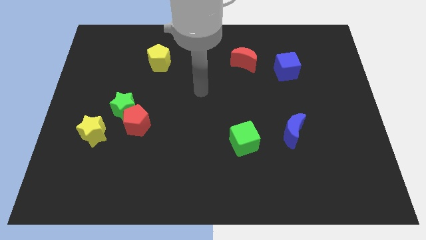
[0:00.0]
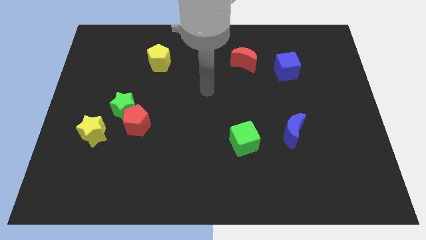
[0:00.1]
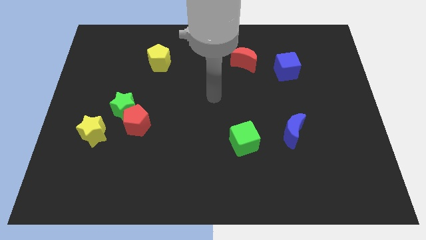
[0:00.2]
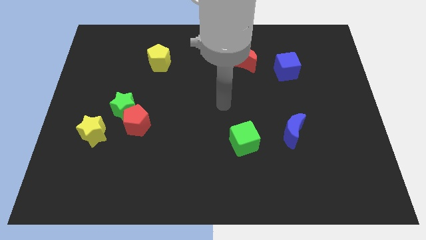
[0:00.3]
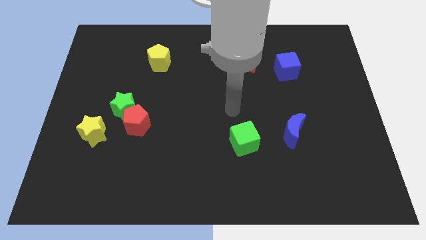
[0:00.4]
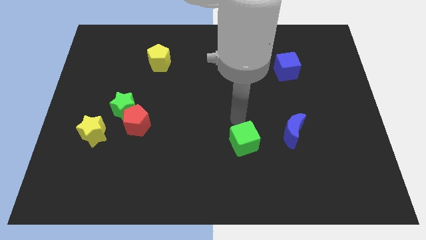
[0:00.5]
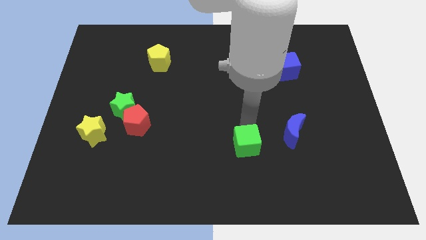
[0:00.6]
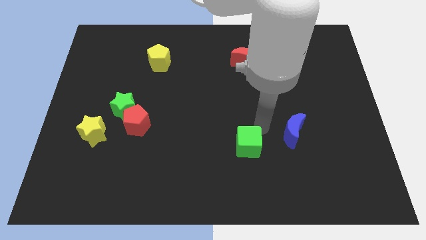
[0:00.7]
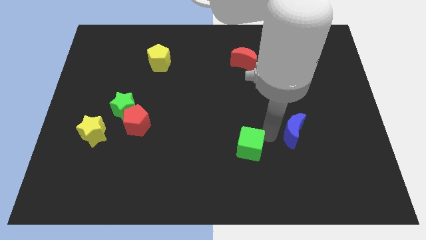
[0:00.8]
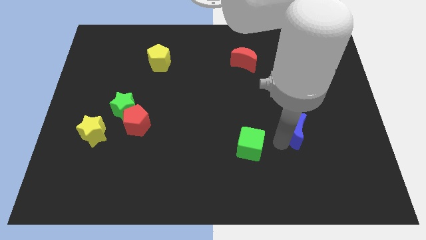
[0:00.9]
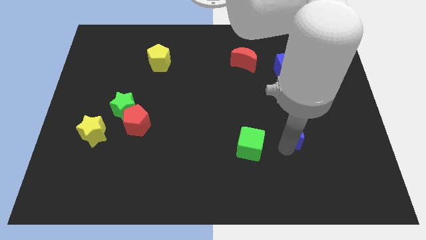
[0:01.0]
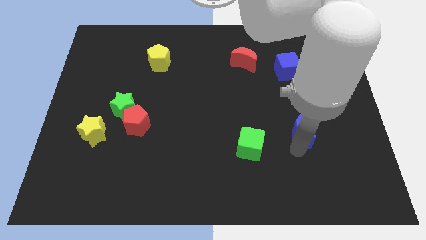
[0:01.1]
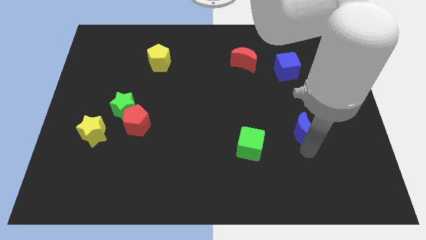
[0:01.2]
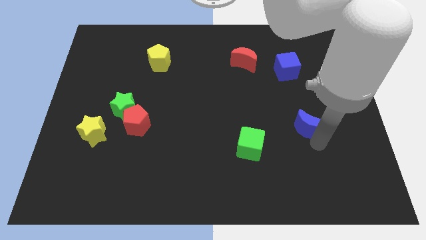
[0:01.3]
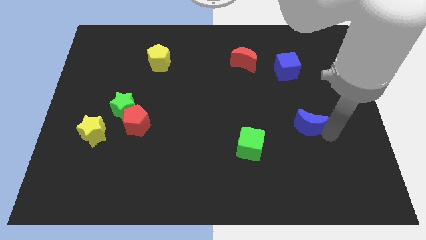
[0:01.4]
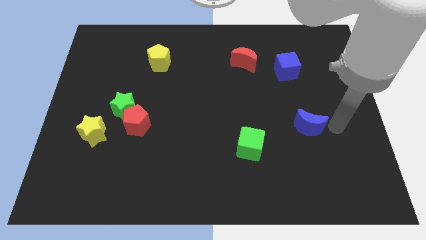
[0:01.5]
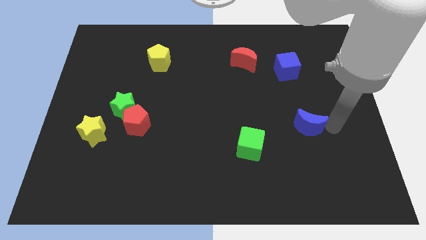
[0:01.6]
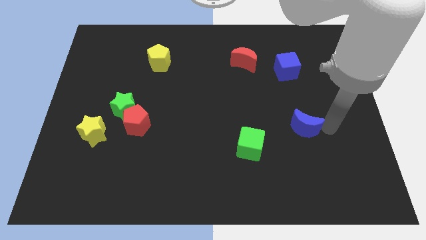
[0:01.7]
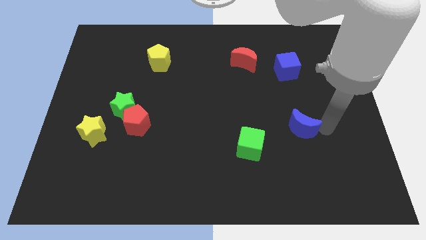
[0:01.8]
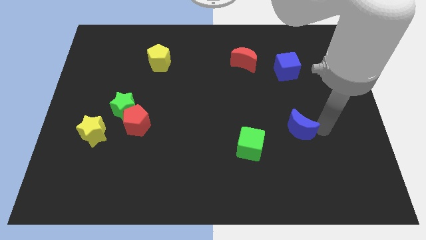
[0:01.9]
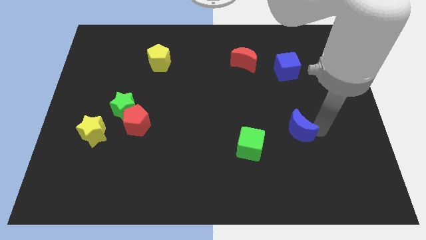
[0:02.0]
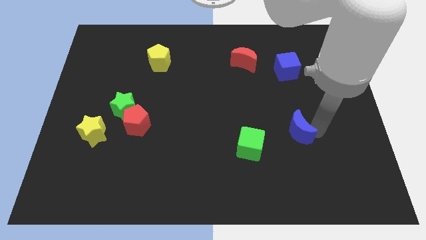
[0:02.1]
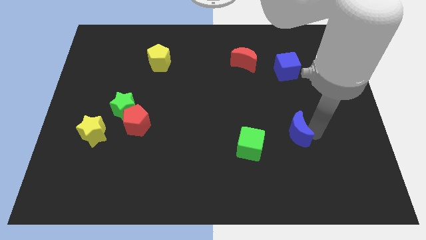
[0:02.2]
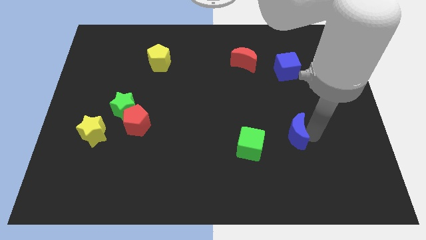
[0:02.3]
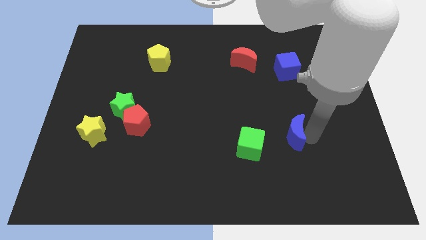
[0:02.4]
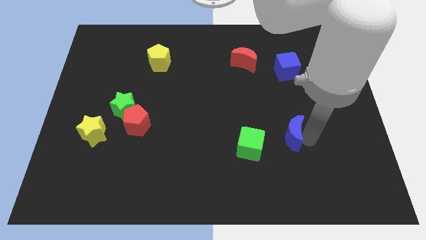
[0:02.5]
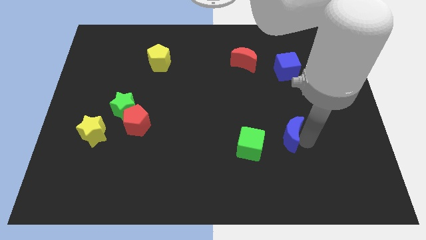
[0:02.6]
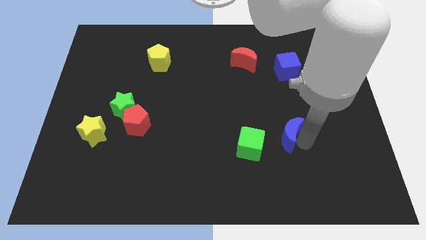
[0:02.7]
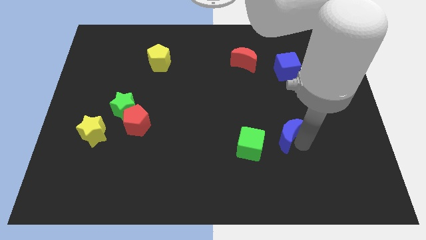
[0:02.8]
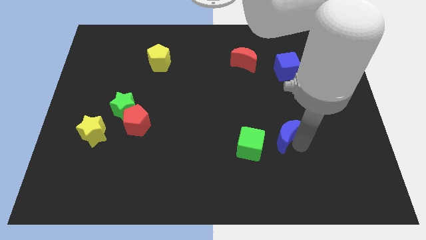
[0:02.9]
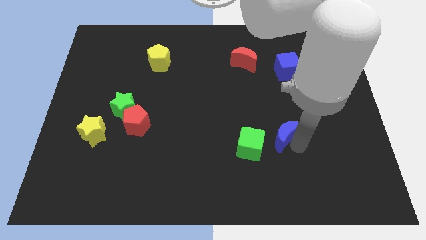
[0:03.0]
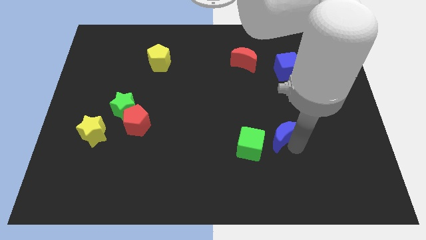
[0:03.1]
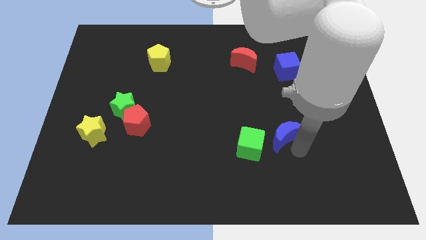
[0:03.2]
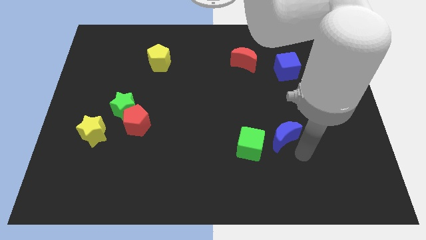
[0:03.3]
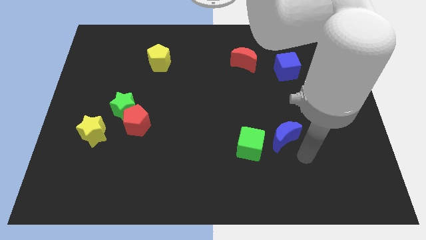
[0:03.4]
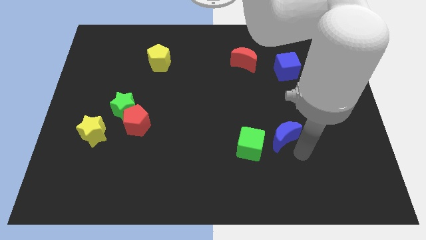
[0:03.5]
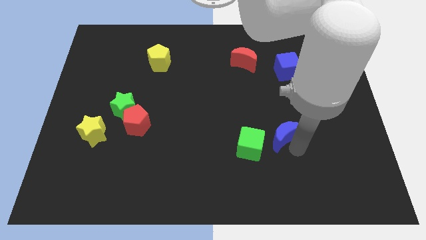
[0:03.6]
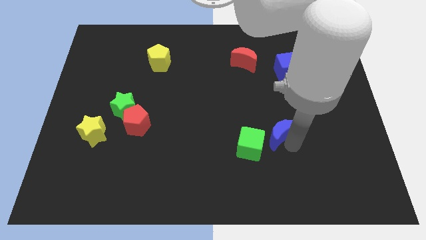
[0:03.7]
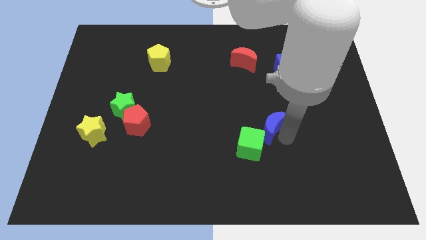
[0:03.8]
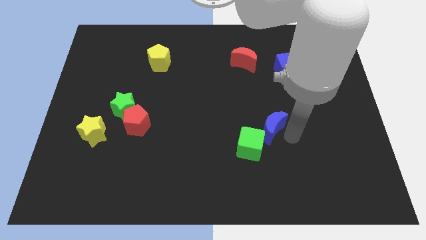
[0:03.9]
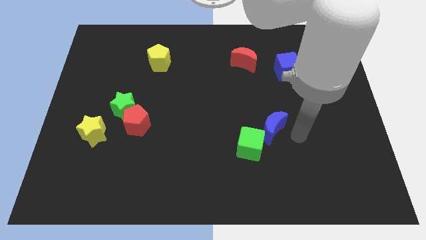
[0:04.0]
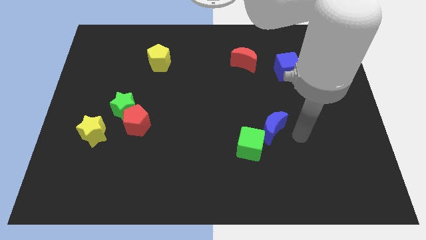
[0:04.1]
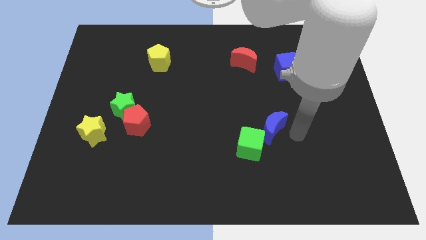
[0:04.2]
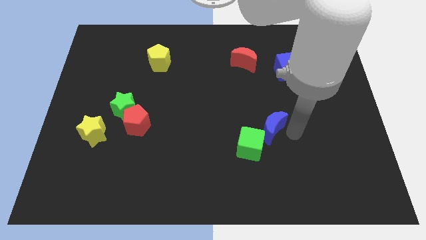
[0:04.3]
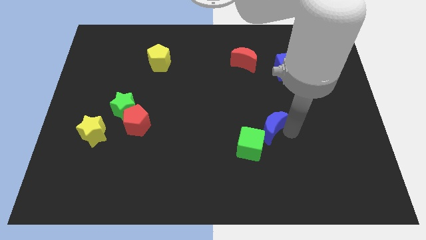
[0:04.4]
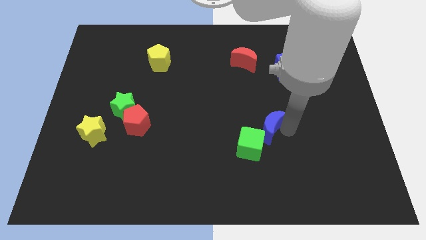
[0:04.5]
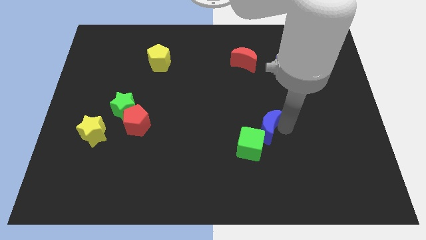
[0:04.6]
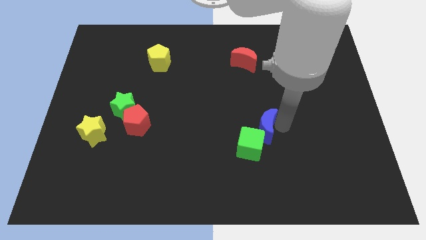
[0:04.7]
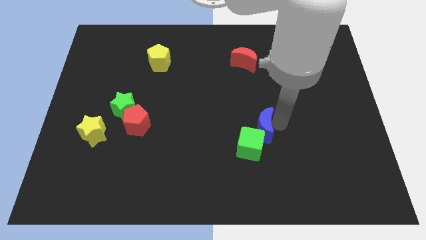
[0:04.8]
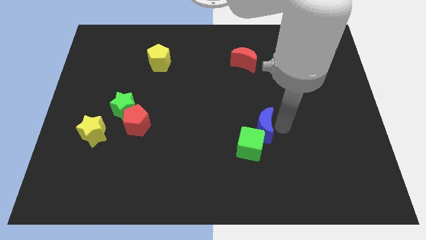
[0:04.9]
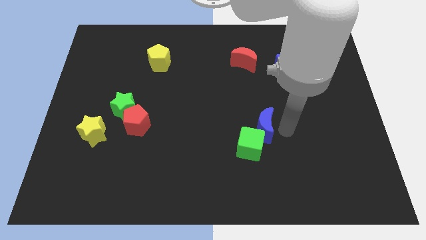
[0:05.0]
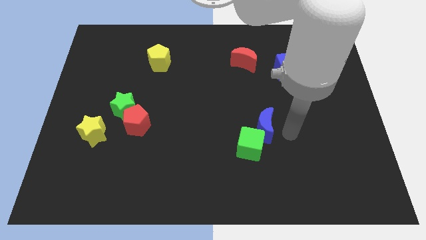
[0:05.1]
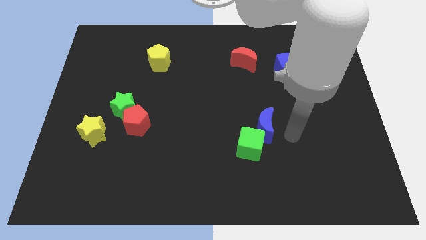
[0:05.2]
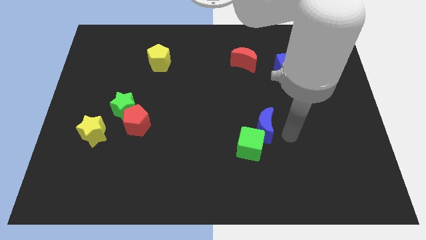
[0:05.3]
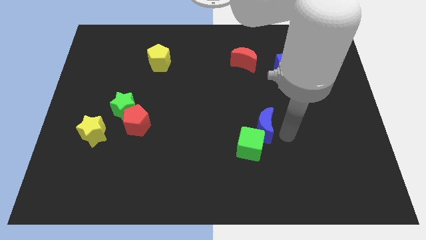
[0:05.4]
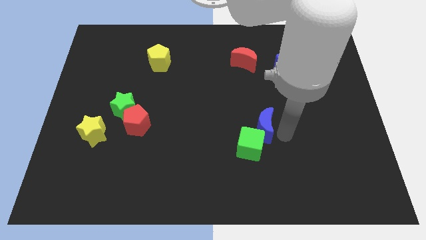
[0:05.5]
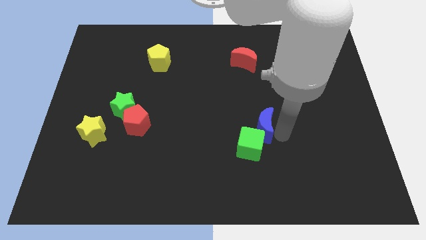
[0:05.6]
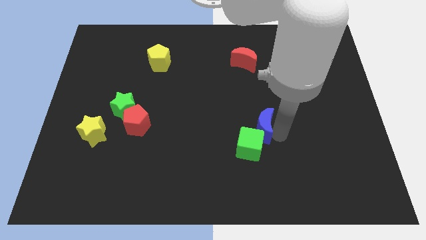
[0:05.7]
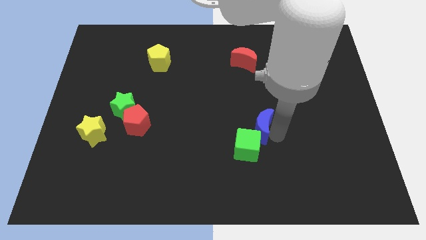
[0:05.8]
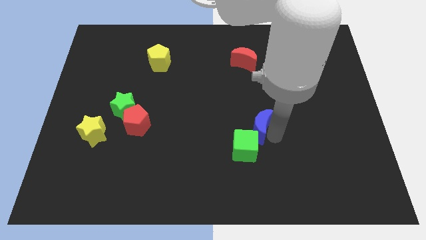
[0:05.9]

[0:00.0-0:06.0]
move the blue moon a little to the left

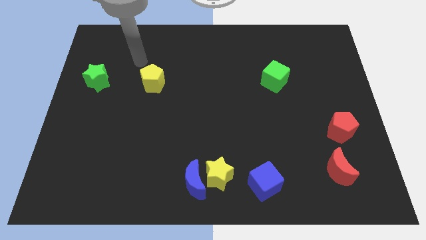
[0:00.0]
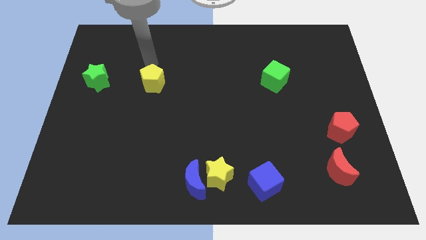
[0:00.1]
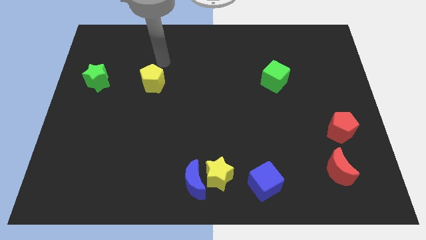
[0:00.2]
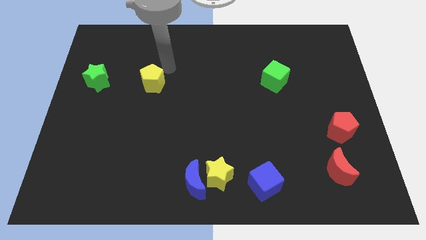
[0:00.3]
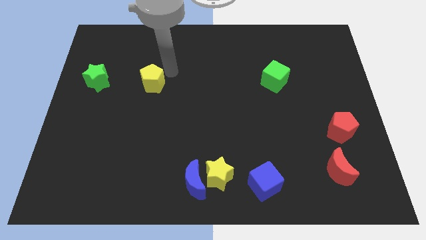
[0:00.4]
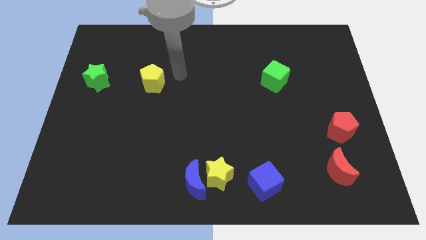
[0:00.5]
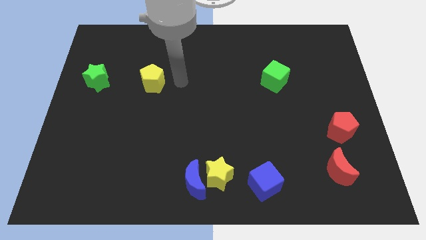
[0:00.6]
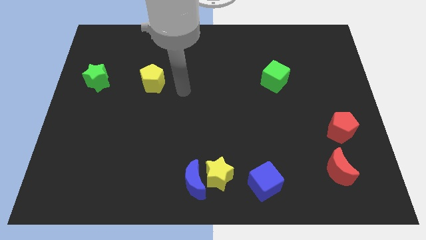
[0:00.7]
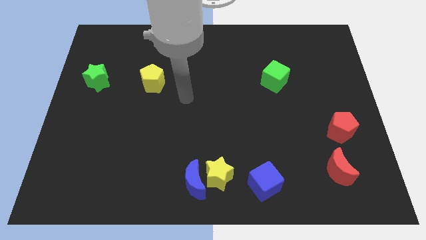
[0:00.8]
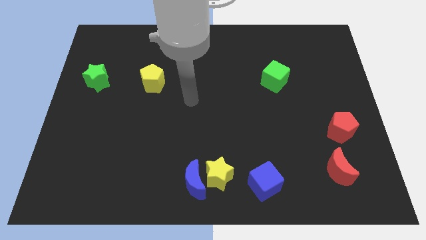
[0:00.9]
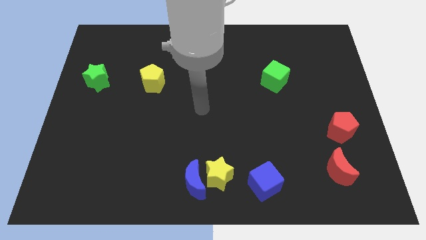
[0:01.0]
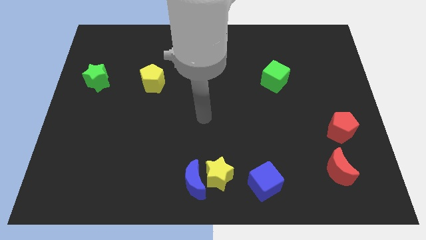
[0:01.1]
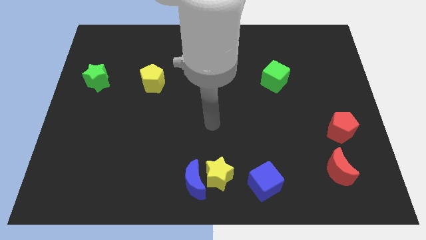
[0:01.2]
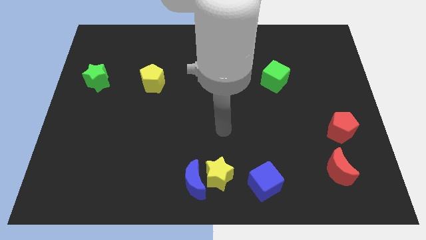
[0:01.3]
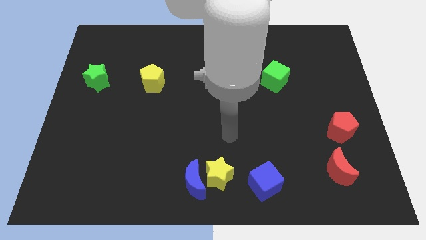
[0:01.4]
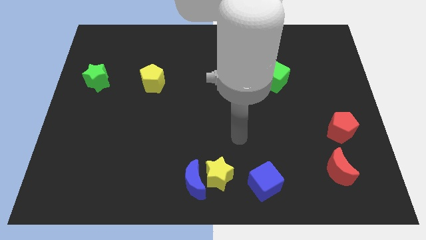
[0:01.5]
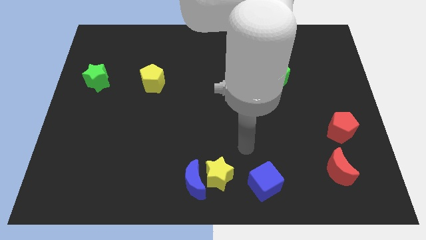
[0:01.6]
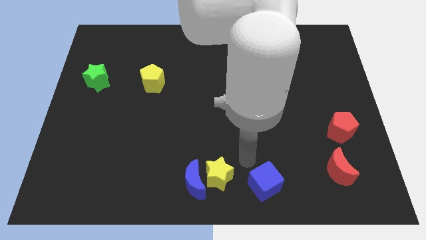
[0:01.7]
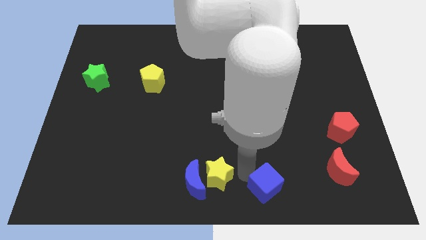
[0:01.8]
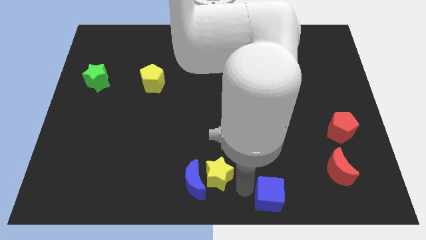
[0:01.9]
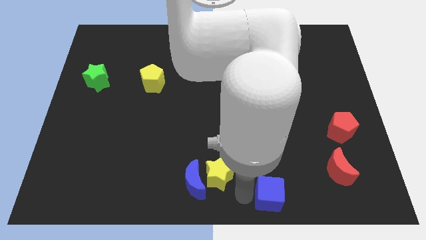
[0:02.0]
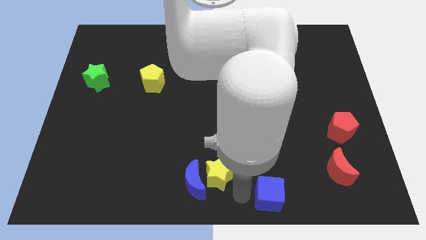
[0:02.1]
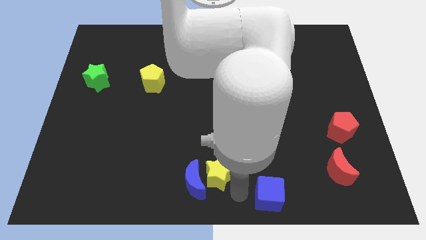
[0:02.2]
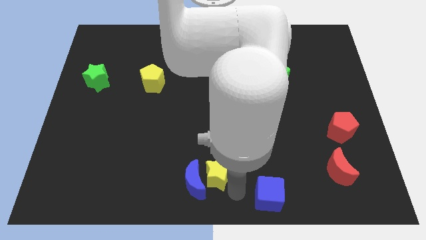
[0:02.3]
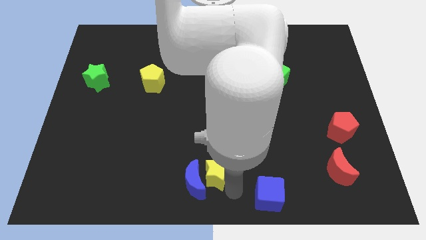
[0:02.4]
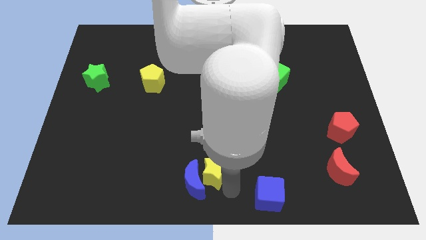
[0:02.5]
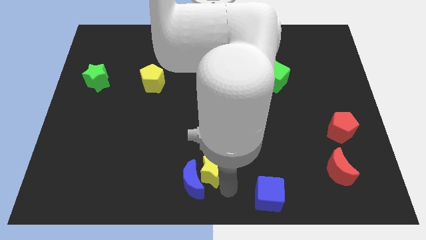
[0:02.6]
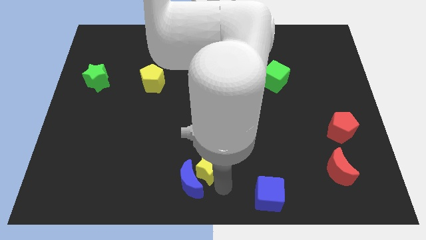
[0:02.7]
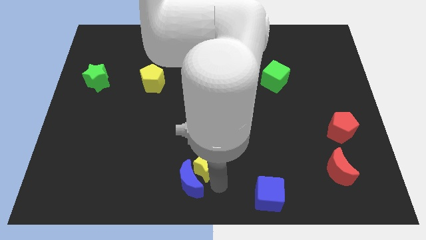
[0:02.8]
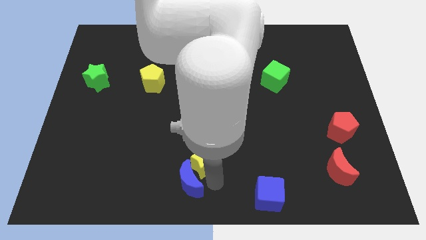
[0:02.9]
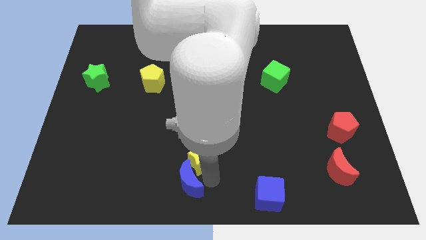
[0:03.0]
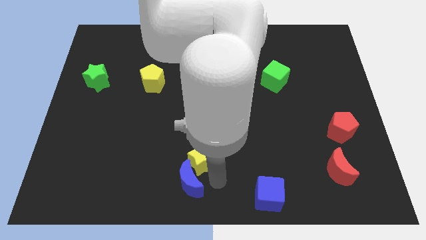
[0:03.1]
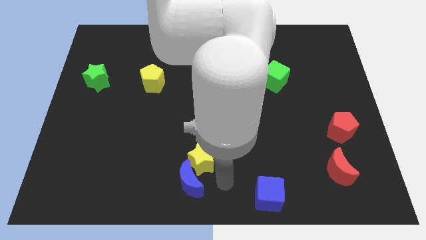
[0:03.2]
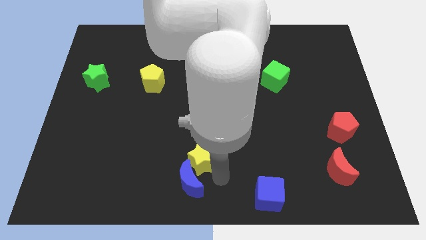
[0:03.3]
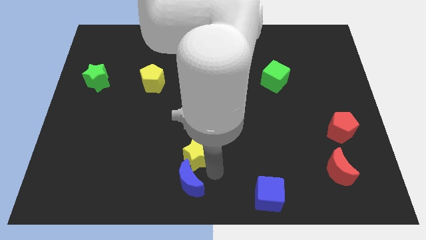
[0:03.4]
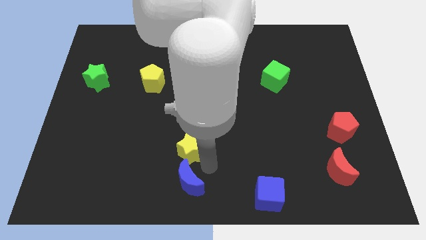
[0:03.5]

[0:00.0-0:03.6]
push the yellow star somewhat diagonally up and to the left
